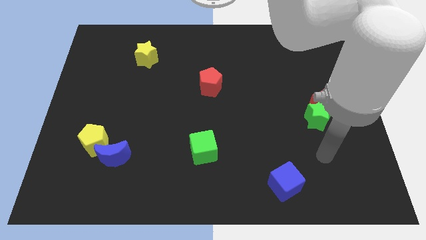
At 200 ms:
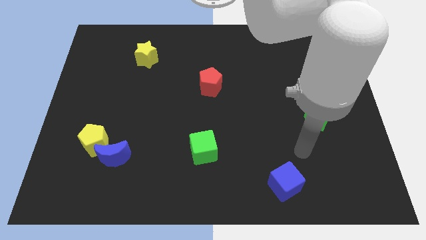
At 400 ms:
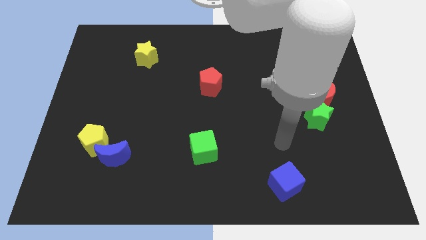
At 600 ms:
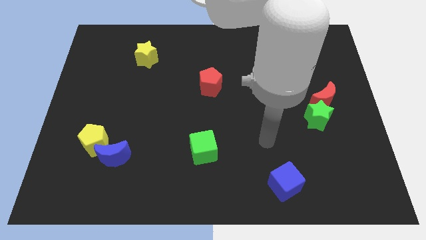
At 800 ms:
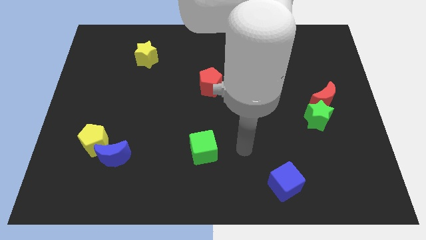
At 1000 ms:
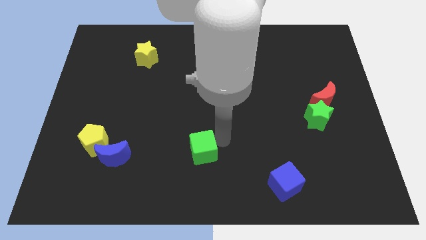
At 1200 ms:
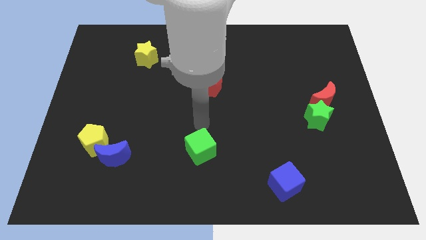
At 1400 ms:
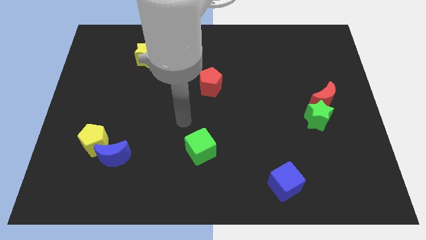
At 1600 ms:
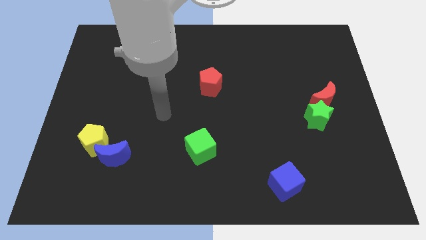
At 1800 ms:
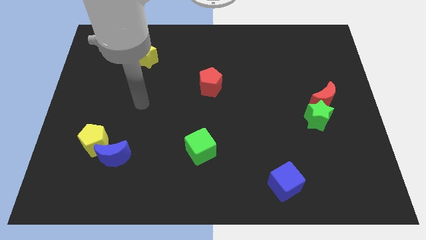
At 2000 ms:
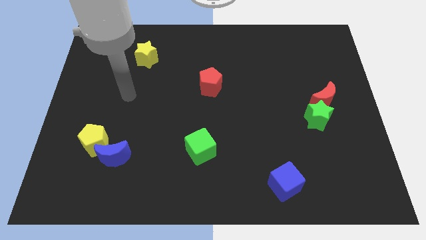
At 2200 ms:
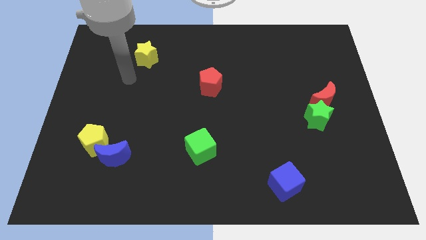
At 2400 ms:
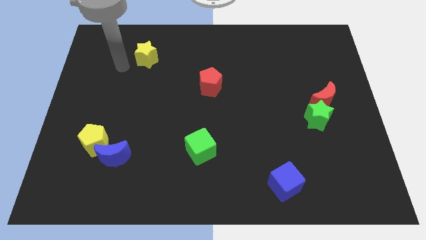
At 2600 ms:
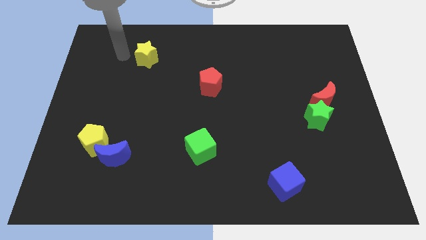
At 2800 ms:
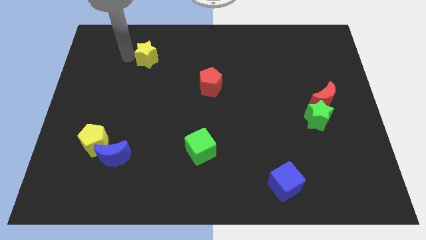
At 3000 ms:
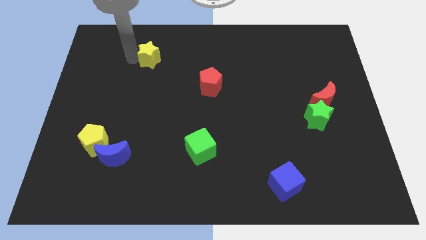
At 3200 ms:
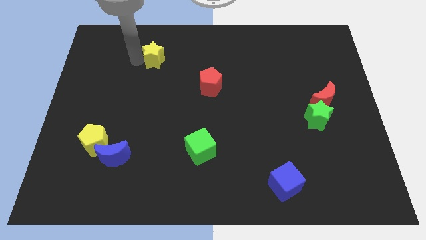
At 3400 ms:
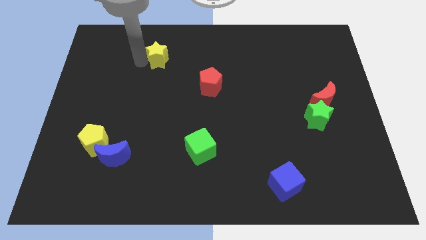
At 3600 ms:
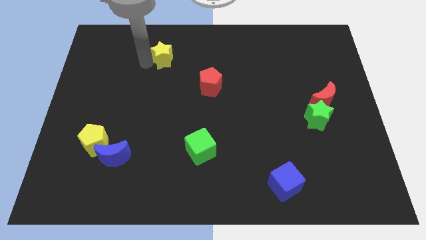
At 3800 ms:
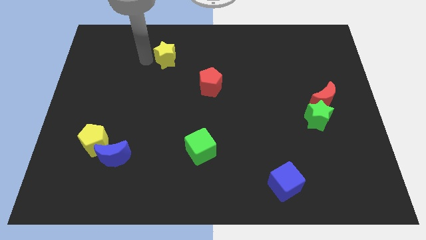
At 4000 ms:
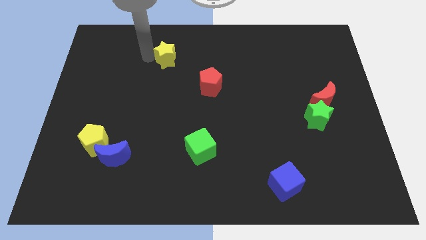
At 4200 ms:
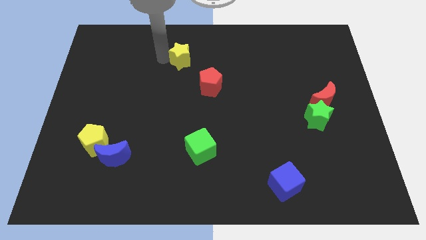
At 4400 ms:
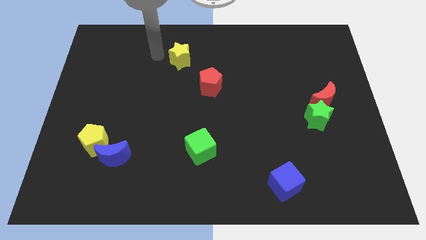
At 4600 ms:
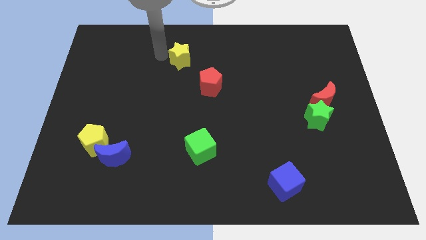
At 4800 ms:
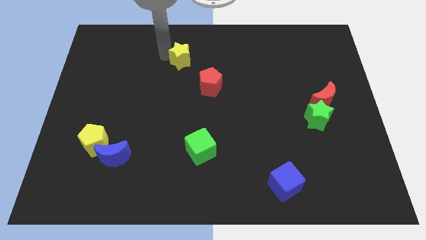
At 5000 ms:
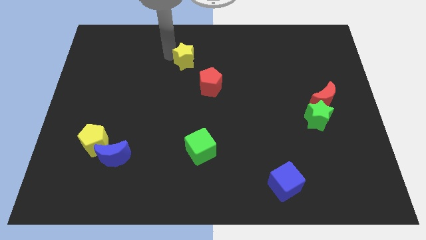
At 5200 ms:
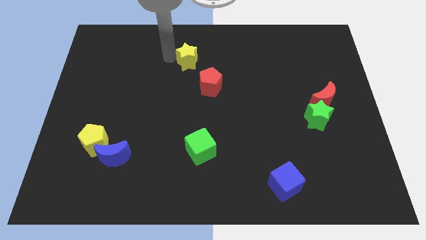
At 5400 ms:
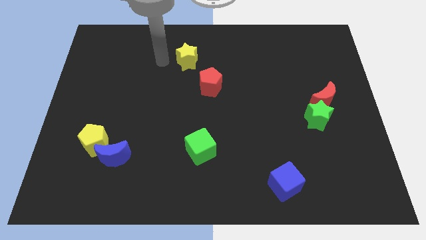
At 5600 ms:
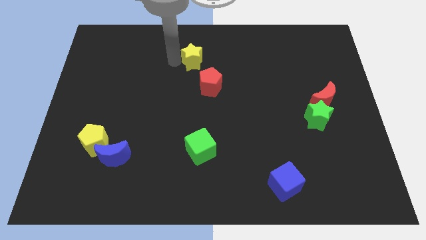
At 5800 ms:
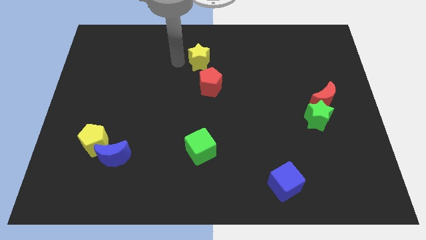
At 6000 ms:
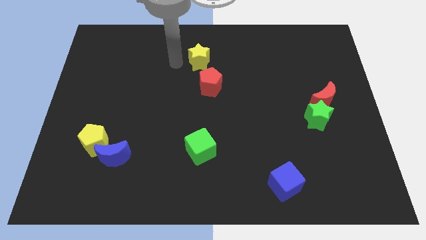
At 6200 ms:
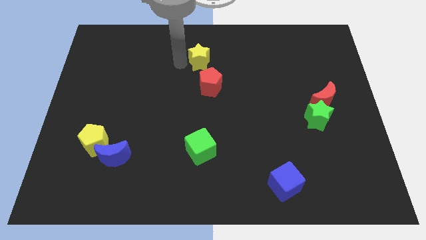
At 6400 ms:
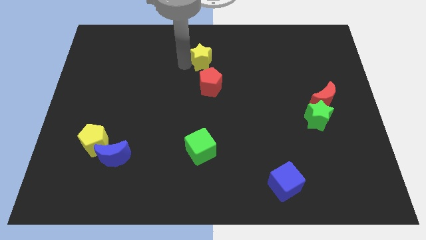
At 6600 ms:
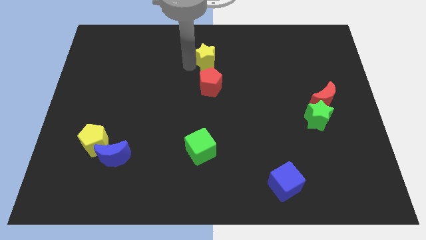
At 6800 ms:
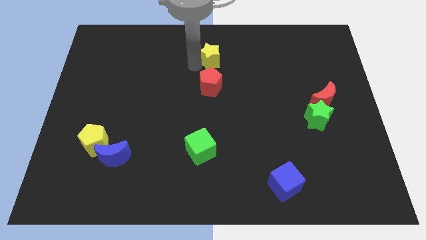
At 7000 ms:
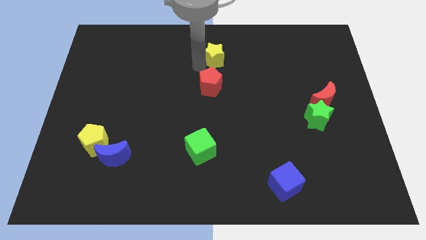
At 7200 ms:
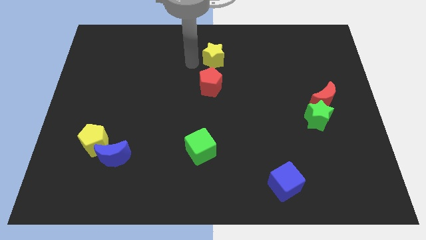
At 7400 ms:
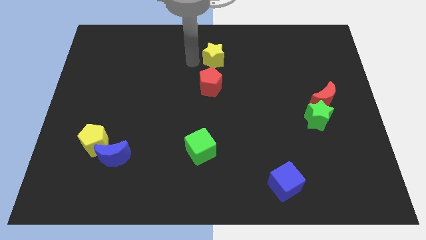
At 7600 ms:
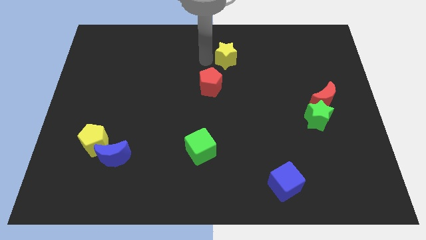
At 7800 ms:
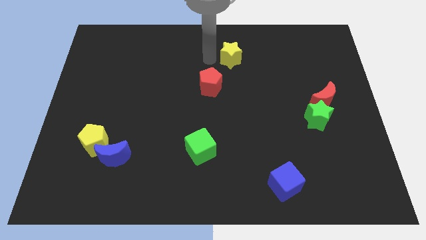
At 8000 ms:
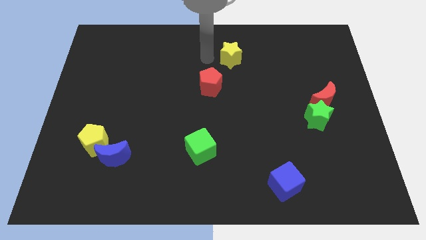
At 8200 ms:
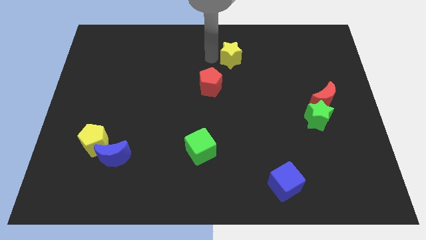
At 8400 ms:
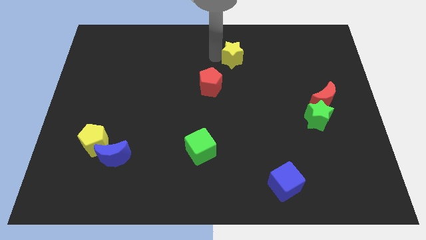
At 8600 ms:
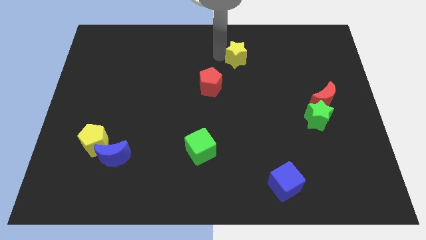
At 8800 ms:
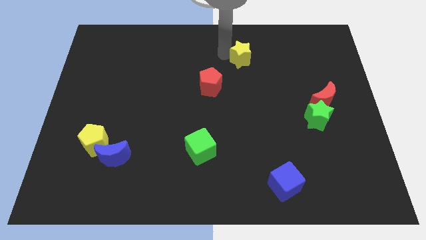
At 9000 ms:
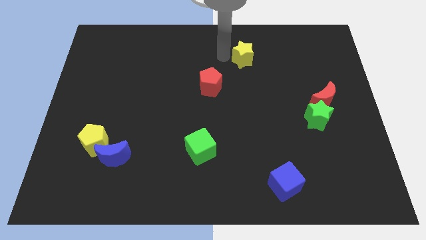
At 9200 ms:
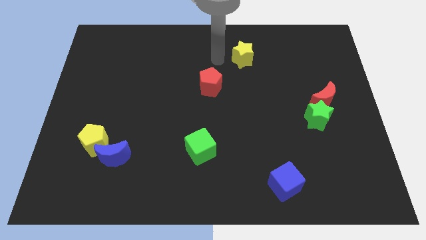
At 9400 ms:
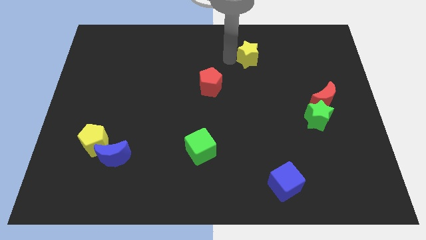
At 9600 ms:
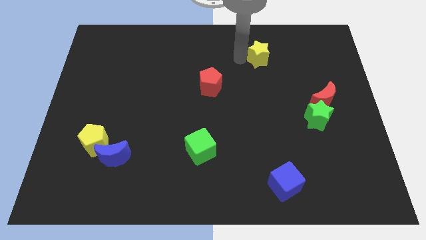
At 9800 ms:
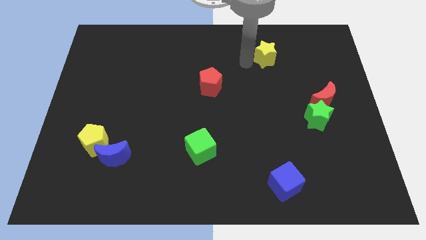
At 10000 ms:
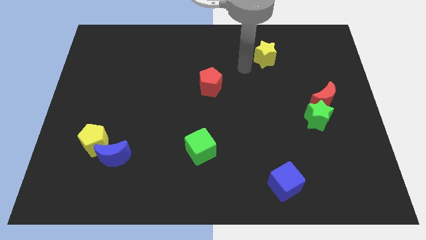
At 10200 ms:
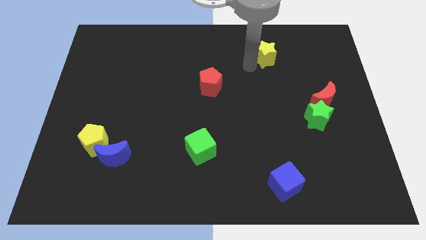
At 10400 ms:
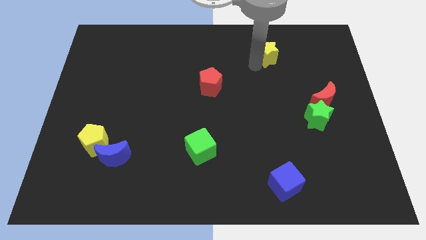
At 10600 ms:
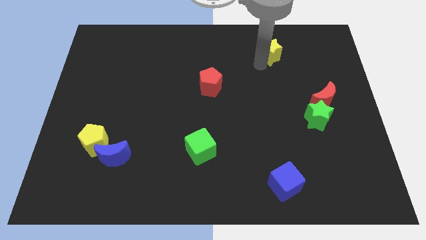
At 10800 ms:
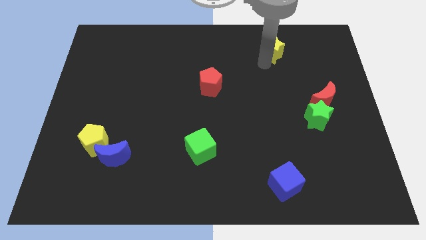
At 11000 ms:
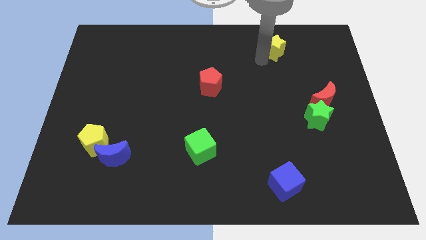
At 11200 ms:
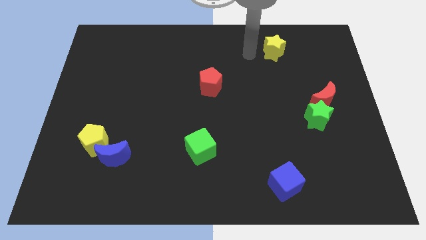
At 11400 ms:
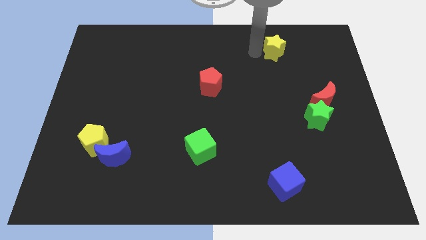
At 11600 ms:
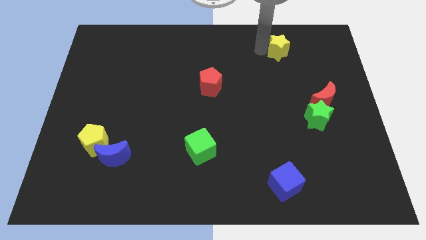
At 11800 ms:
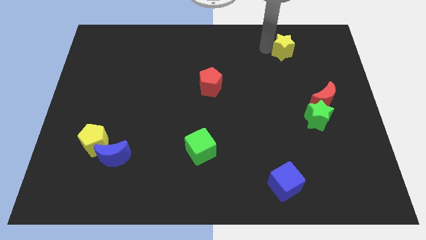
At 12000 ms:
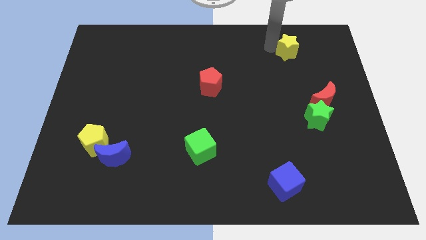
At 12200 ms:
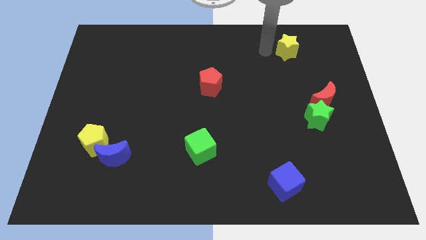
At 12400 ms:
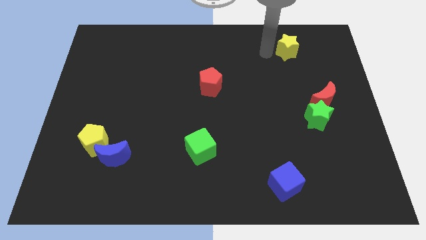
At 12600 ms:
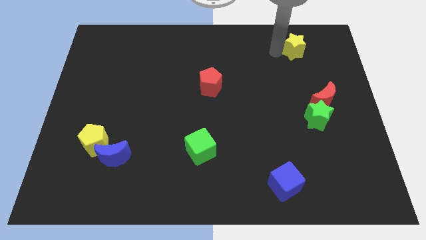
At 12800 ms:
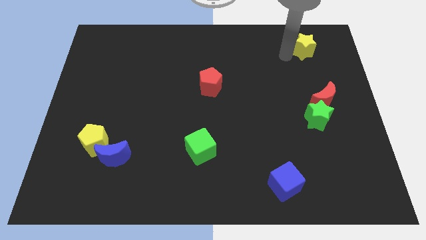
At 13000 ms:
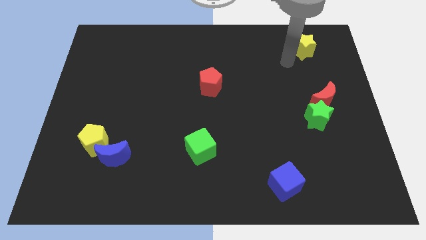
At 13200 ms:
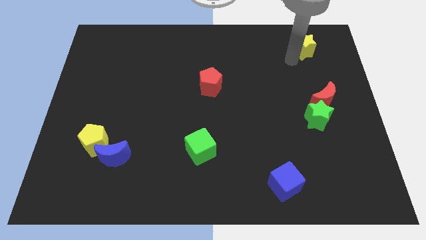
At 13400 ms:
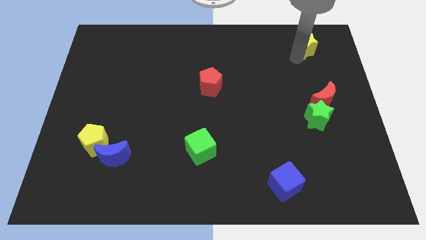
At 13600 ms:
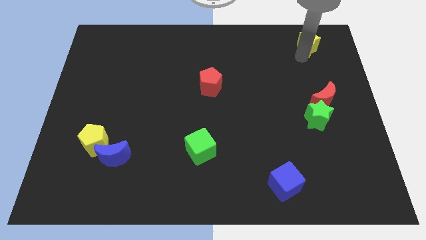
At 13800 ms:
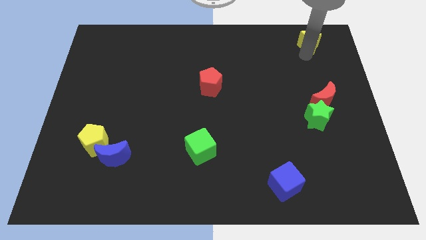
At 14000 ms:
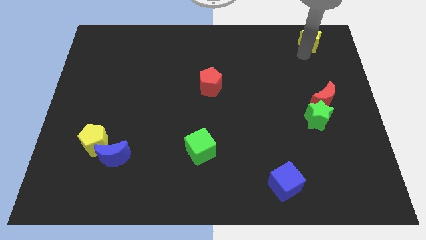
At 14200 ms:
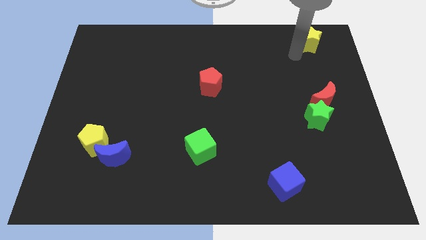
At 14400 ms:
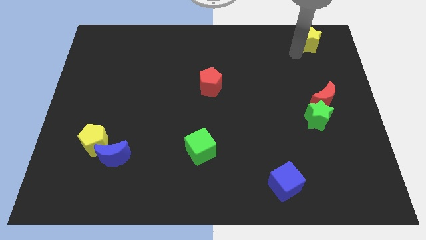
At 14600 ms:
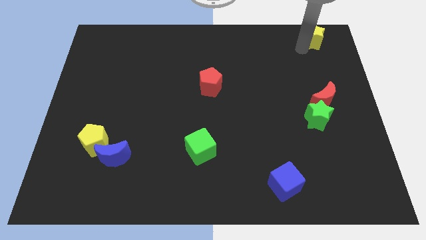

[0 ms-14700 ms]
move the yellow star to the top right corner
